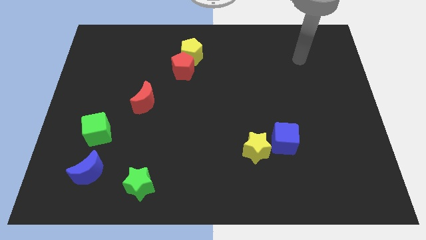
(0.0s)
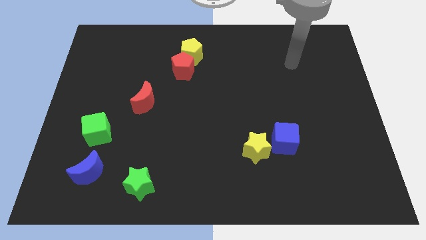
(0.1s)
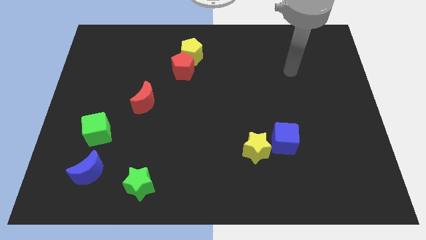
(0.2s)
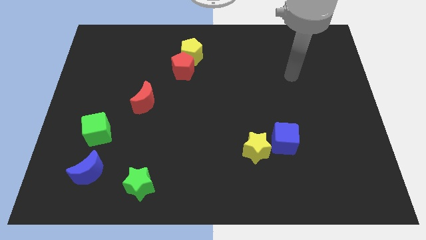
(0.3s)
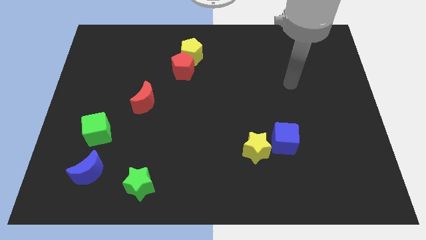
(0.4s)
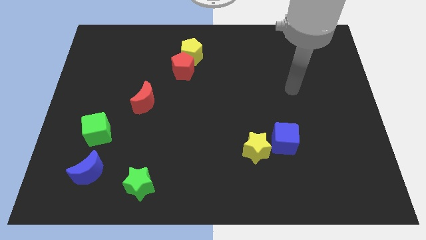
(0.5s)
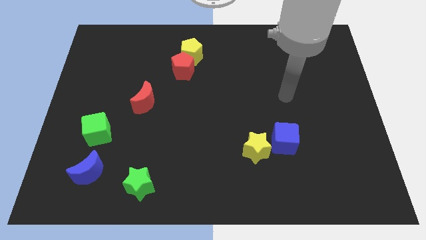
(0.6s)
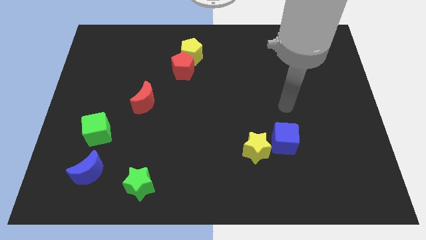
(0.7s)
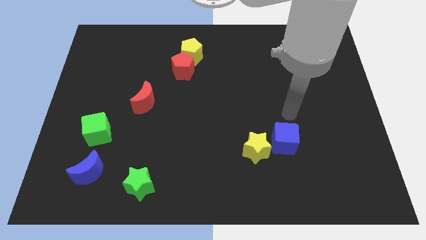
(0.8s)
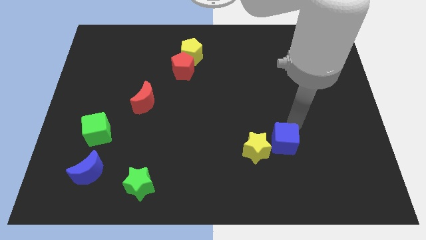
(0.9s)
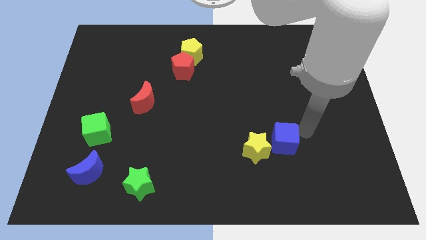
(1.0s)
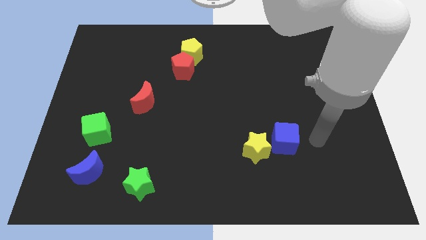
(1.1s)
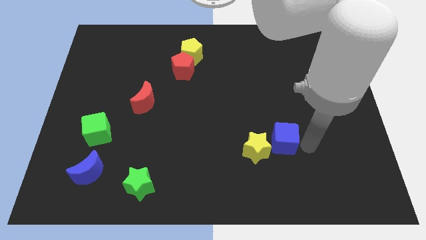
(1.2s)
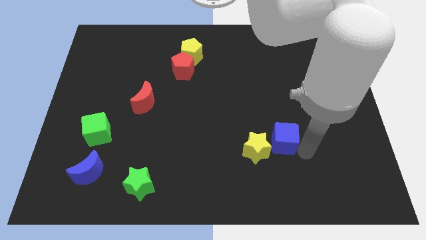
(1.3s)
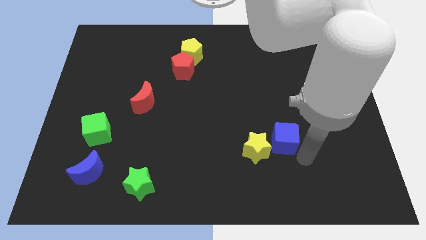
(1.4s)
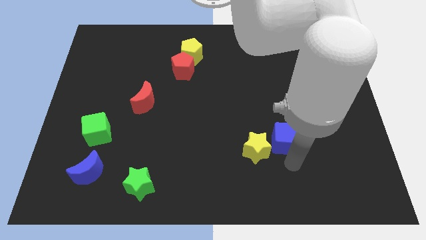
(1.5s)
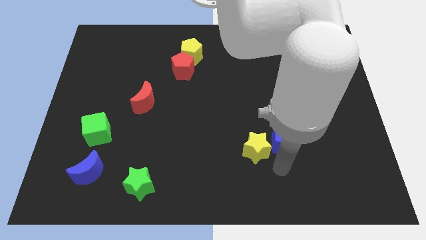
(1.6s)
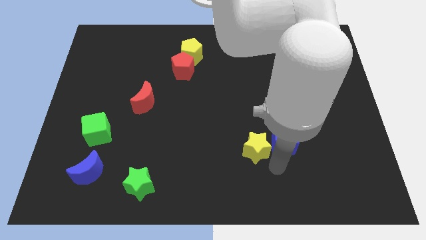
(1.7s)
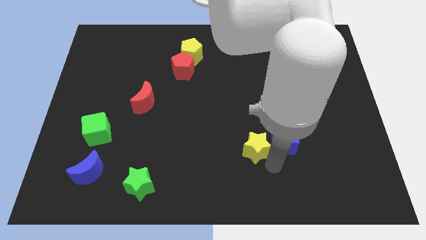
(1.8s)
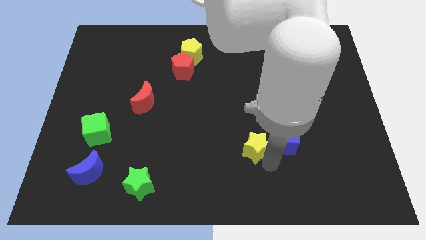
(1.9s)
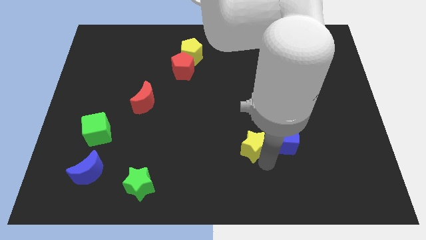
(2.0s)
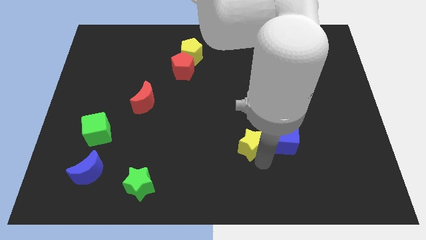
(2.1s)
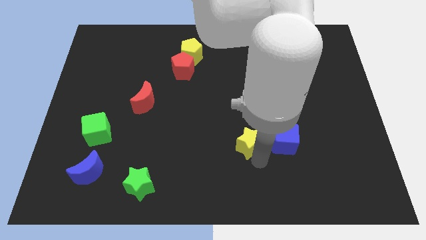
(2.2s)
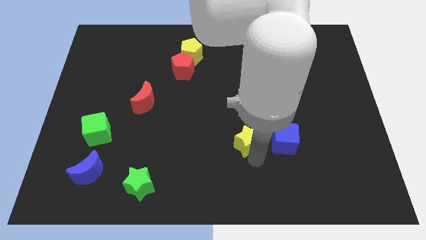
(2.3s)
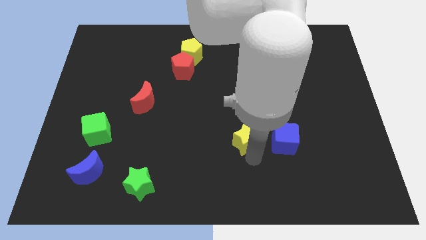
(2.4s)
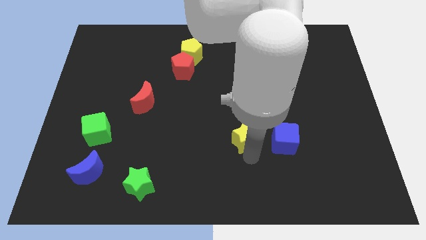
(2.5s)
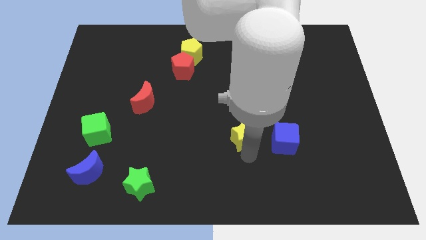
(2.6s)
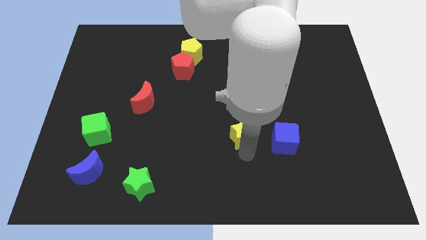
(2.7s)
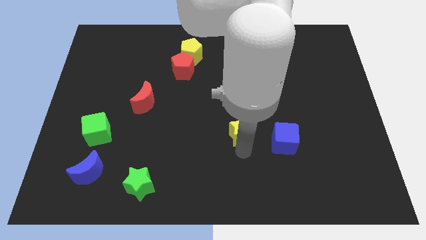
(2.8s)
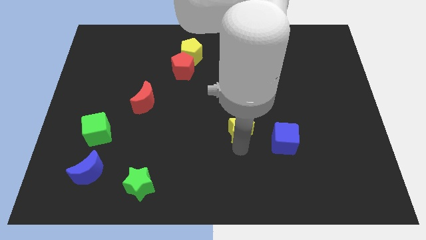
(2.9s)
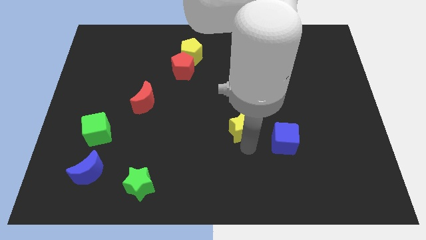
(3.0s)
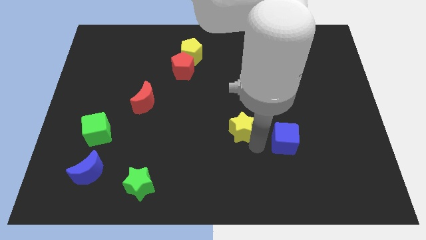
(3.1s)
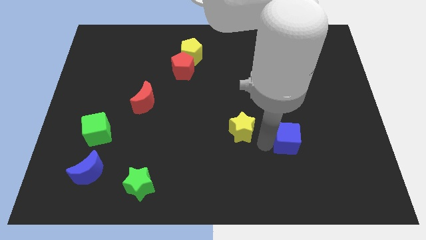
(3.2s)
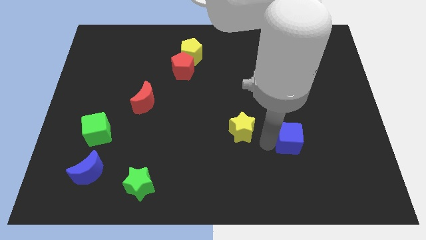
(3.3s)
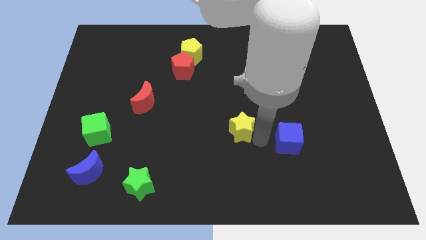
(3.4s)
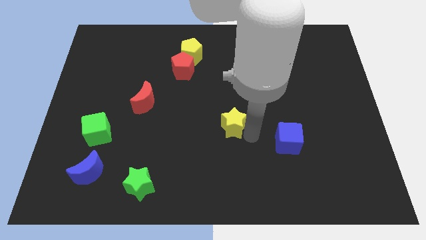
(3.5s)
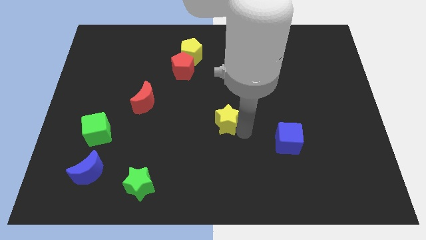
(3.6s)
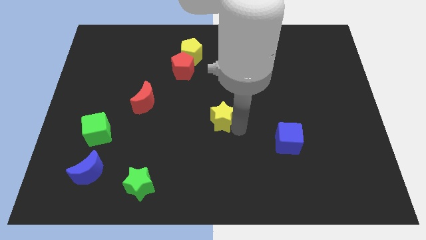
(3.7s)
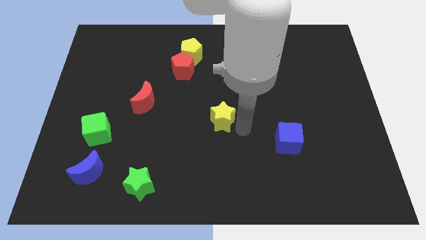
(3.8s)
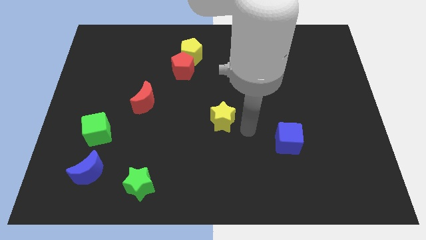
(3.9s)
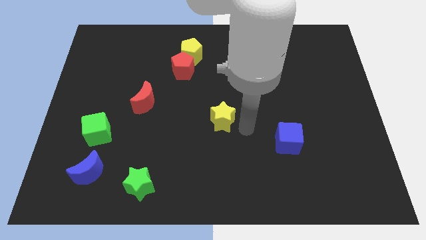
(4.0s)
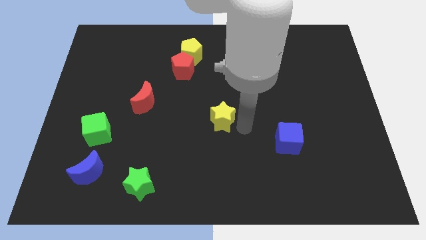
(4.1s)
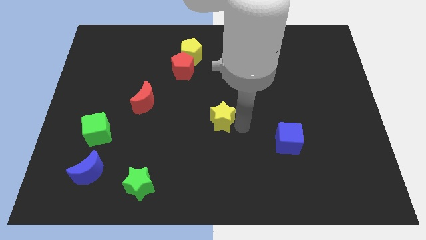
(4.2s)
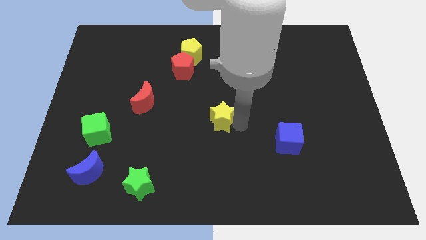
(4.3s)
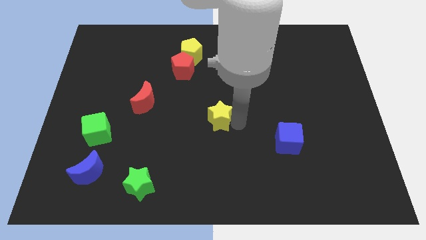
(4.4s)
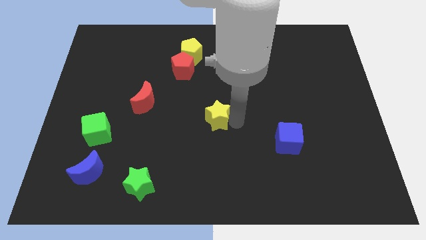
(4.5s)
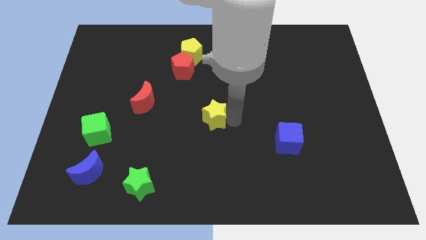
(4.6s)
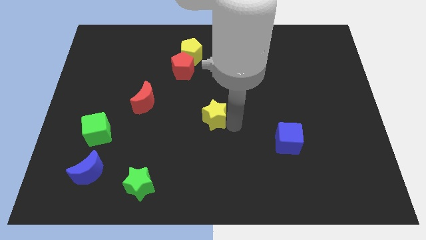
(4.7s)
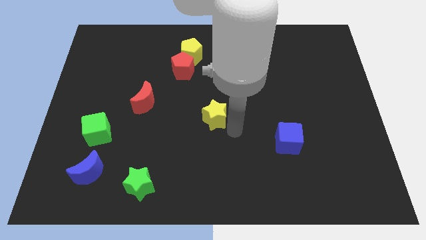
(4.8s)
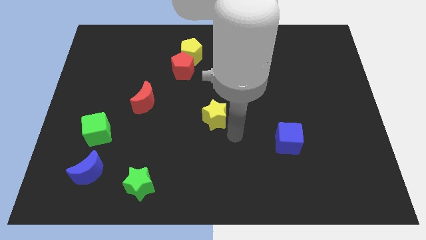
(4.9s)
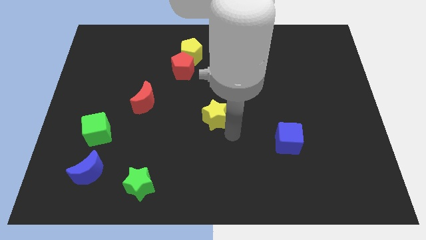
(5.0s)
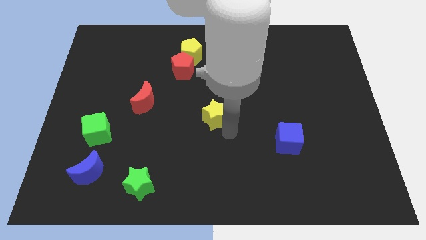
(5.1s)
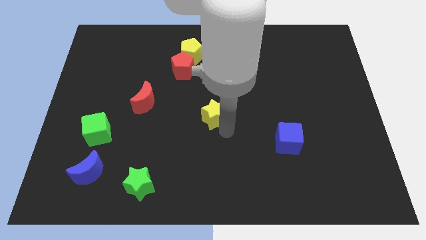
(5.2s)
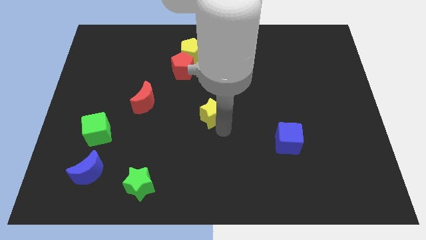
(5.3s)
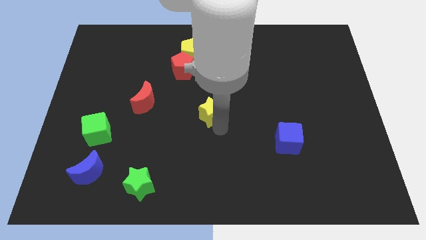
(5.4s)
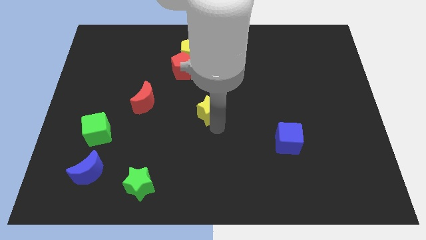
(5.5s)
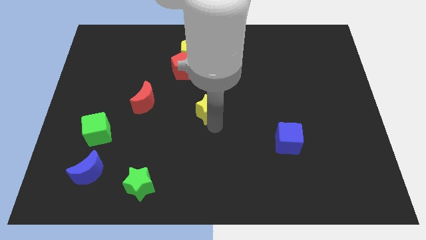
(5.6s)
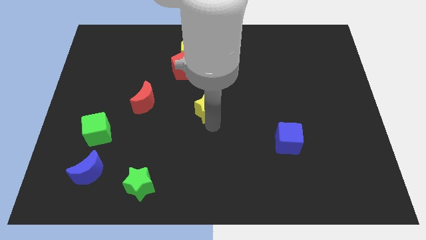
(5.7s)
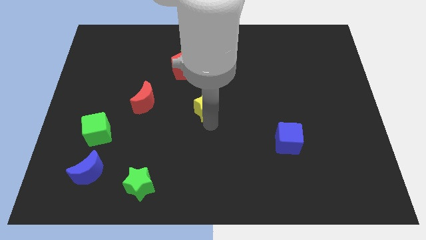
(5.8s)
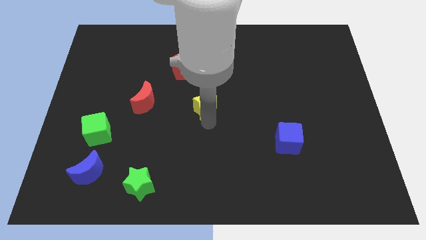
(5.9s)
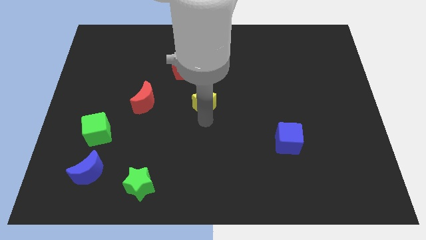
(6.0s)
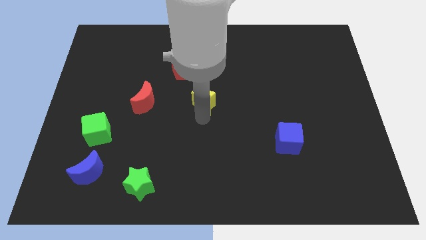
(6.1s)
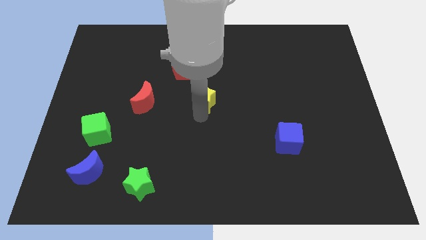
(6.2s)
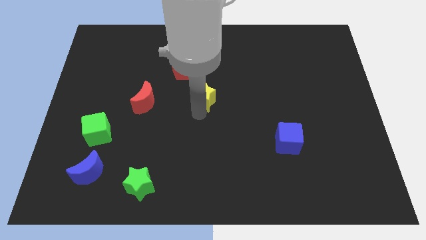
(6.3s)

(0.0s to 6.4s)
put the yellow star to the bottom of the yellow pentagon

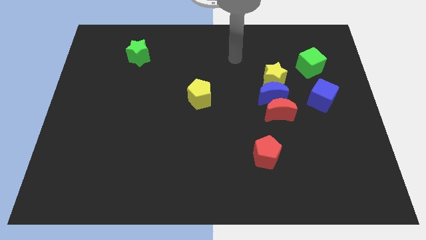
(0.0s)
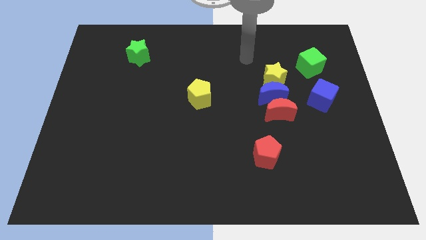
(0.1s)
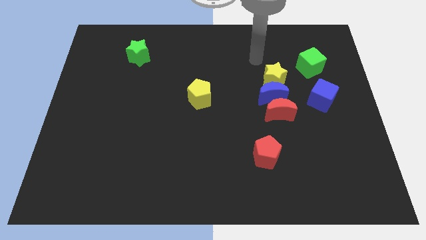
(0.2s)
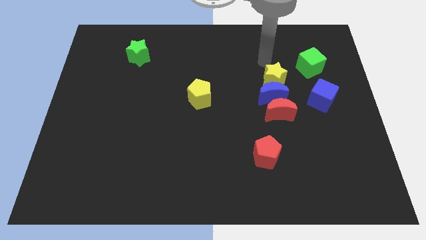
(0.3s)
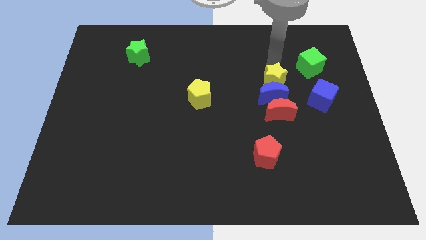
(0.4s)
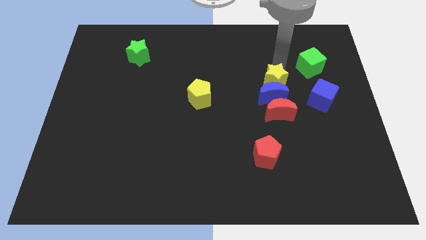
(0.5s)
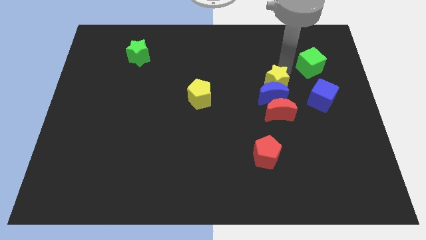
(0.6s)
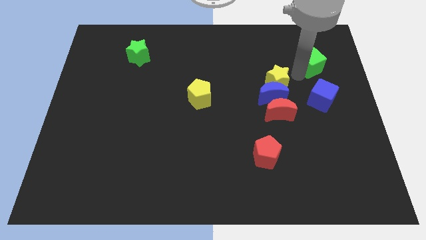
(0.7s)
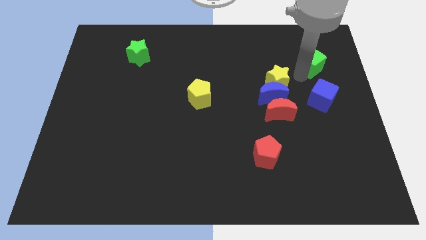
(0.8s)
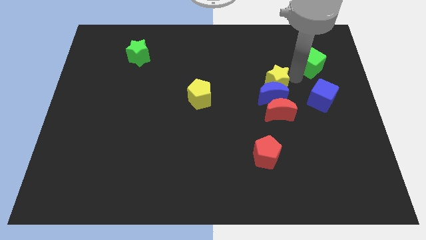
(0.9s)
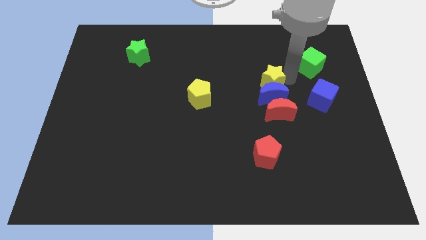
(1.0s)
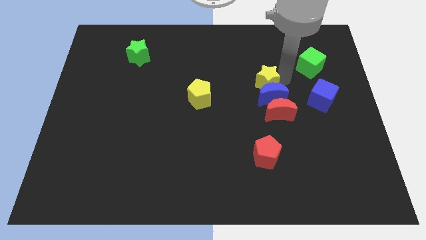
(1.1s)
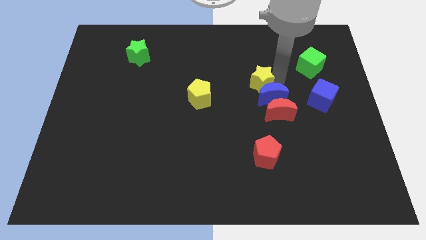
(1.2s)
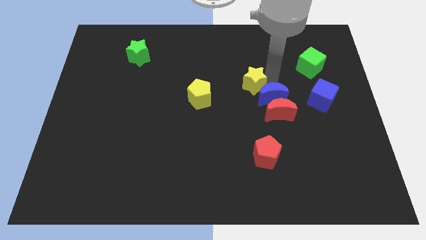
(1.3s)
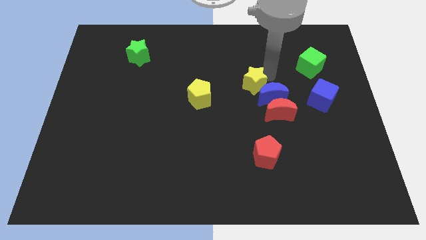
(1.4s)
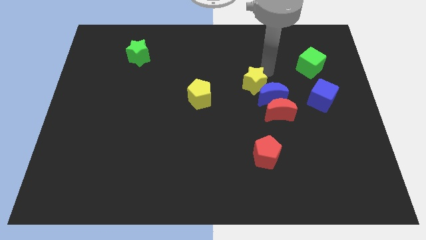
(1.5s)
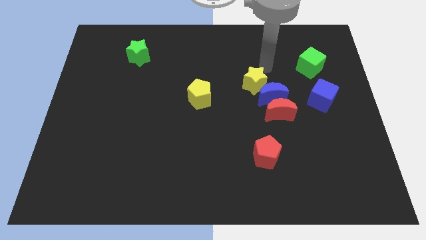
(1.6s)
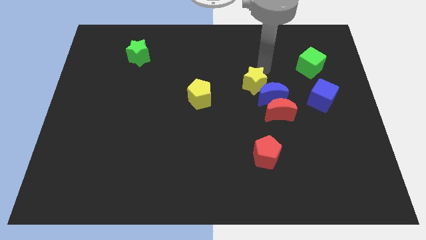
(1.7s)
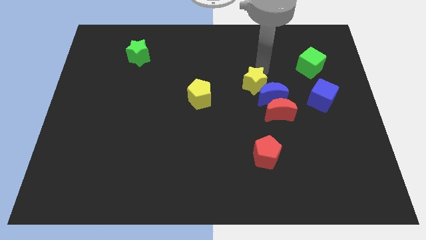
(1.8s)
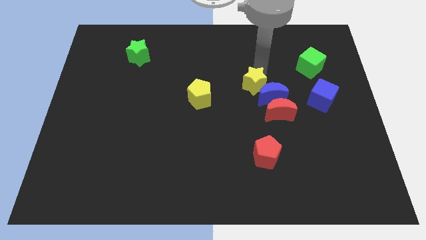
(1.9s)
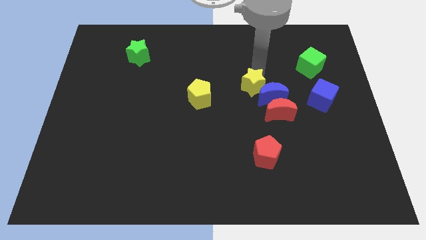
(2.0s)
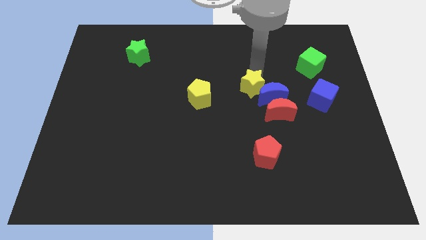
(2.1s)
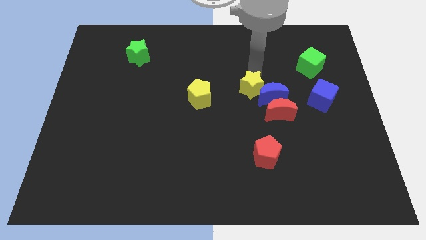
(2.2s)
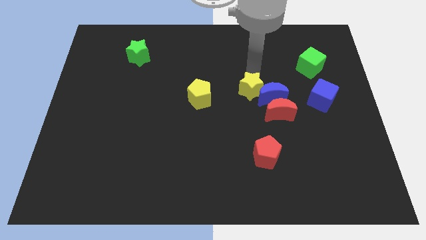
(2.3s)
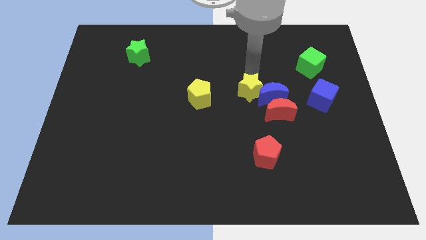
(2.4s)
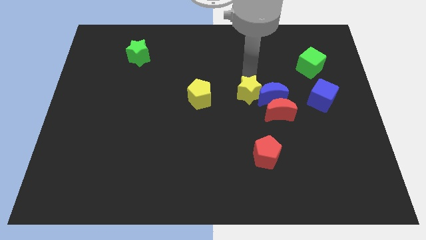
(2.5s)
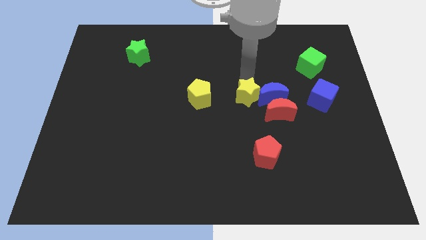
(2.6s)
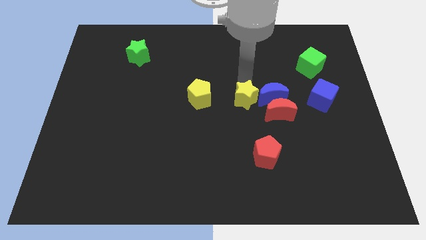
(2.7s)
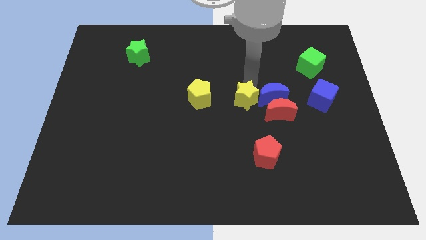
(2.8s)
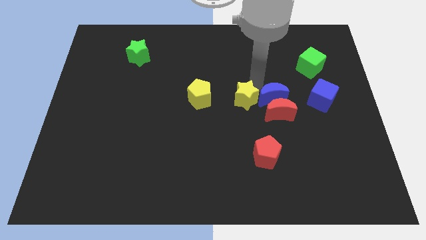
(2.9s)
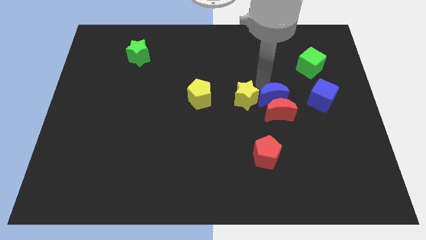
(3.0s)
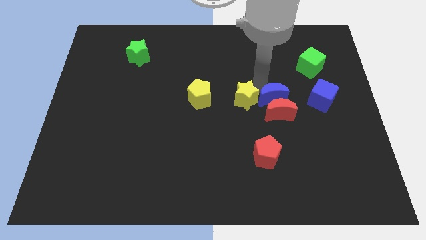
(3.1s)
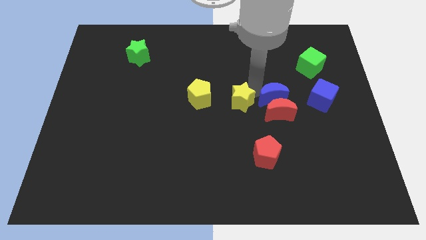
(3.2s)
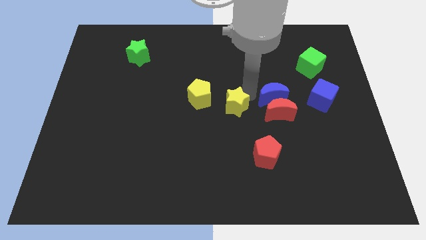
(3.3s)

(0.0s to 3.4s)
push the yellow star to the bottom right of the yellow pentagon
